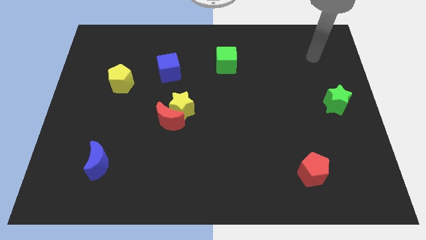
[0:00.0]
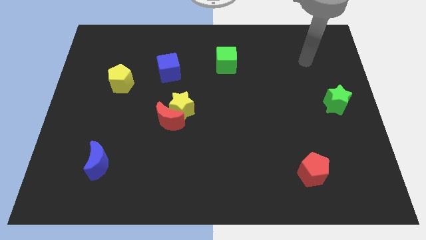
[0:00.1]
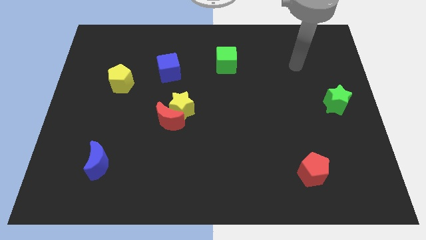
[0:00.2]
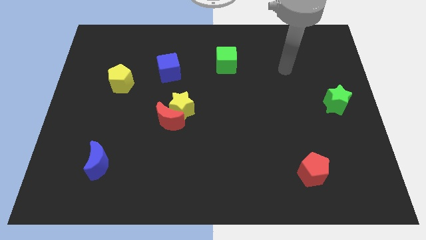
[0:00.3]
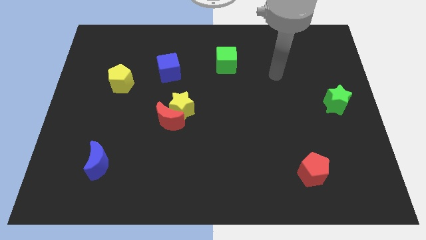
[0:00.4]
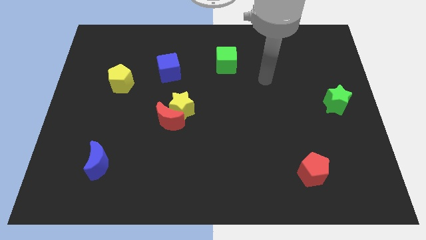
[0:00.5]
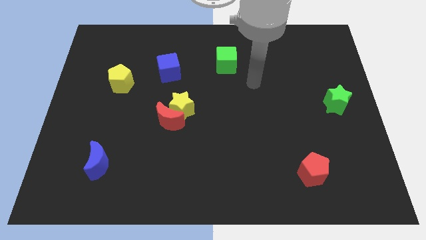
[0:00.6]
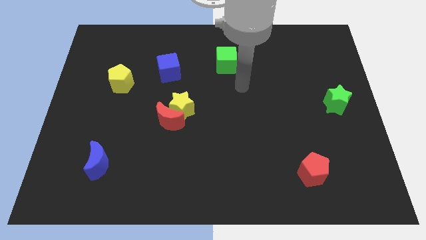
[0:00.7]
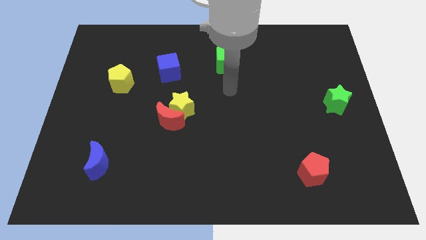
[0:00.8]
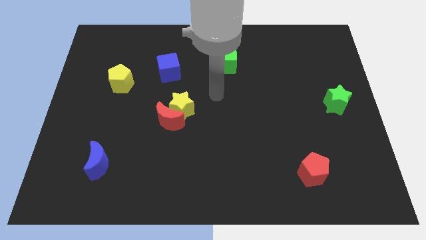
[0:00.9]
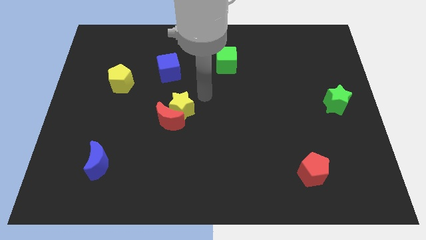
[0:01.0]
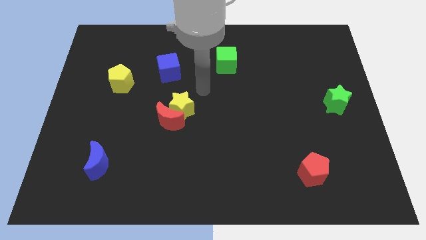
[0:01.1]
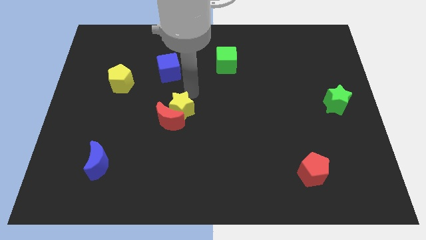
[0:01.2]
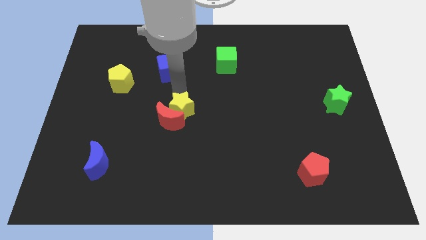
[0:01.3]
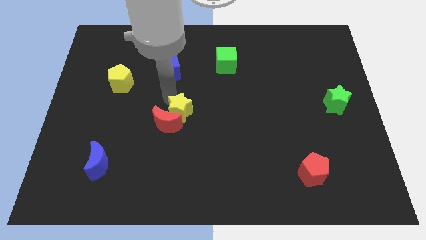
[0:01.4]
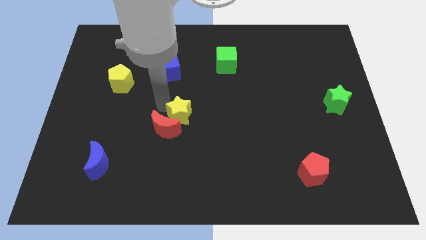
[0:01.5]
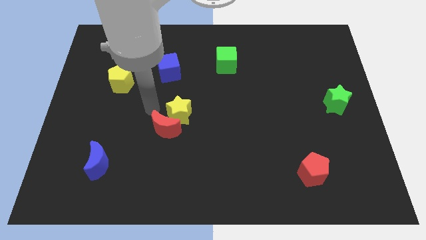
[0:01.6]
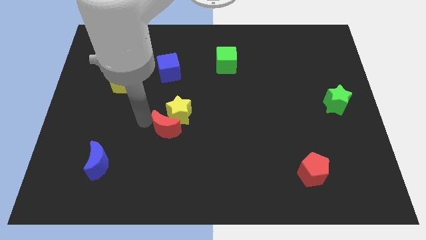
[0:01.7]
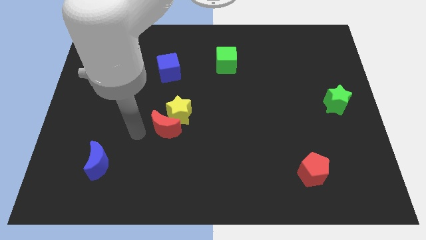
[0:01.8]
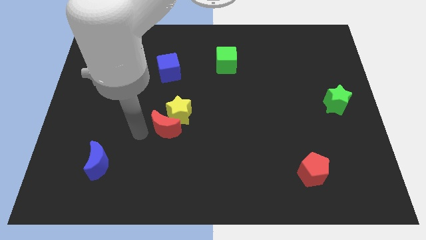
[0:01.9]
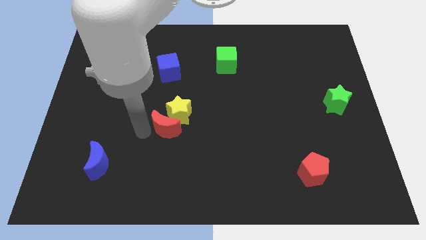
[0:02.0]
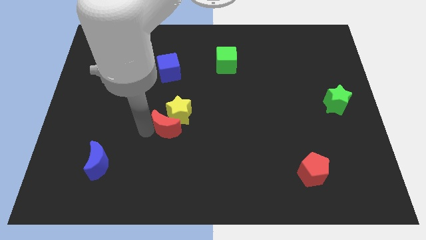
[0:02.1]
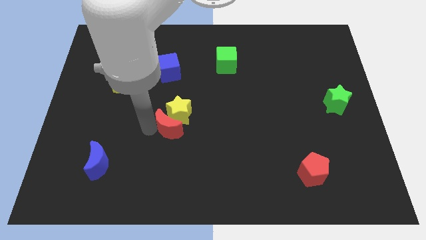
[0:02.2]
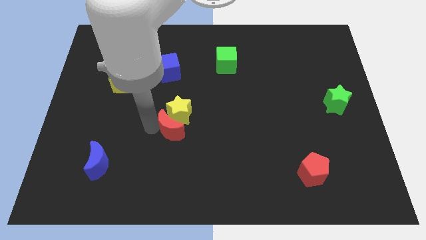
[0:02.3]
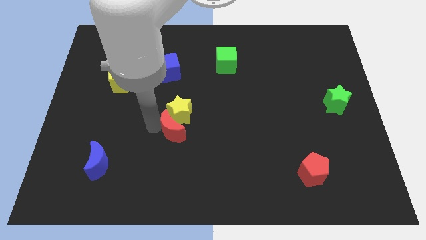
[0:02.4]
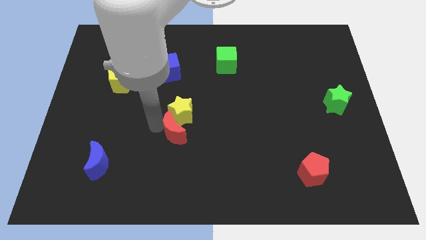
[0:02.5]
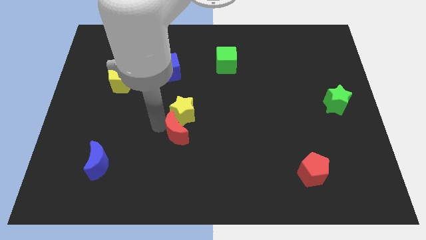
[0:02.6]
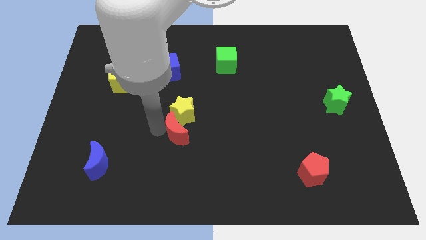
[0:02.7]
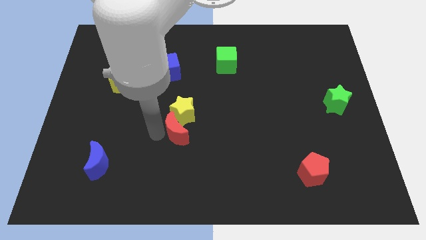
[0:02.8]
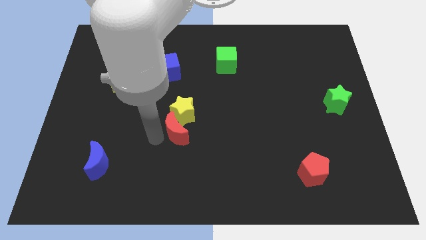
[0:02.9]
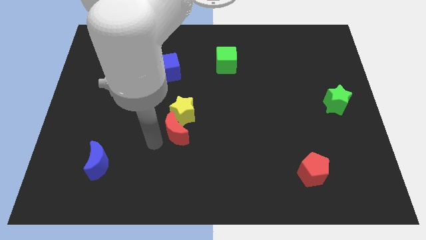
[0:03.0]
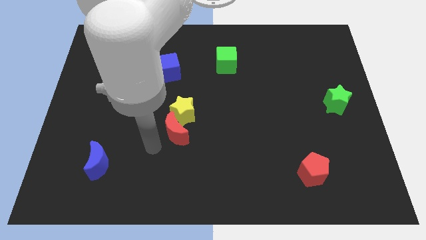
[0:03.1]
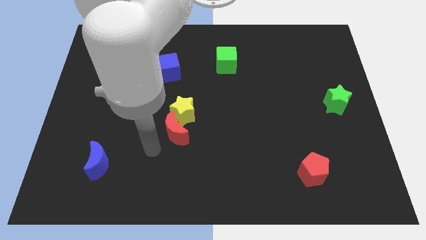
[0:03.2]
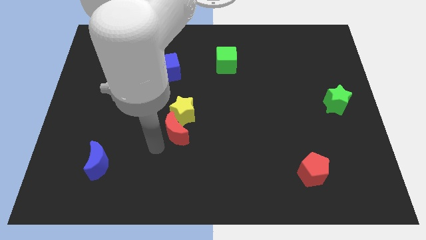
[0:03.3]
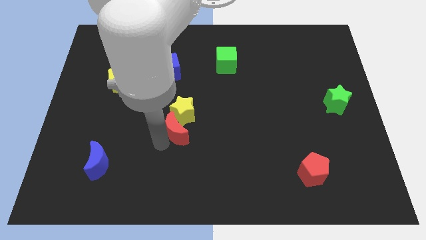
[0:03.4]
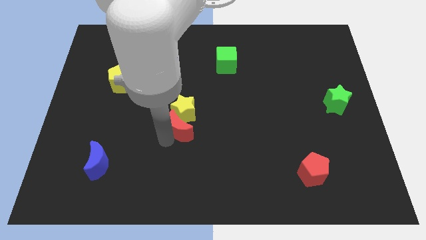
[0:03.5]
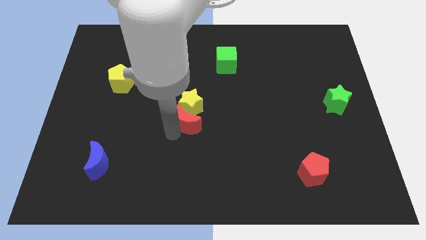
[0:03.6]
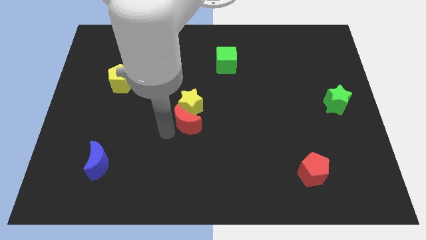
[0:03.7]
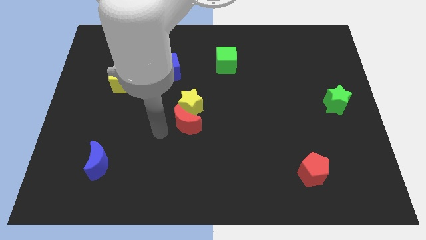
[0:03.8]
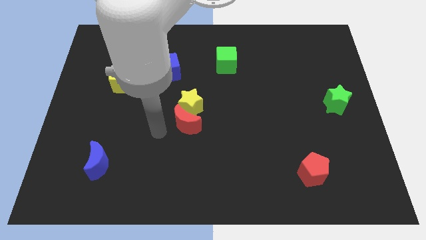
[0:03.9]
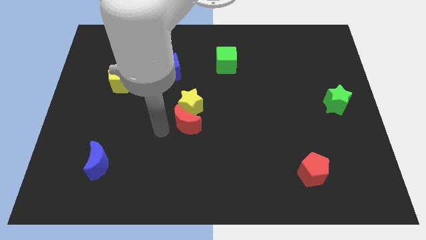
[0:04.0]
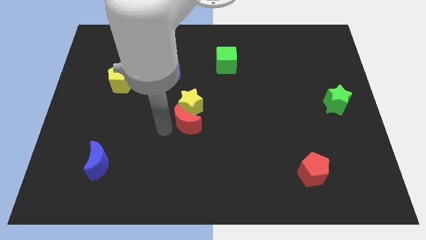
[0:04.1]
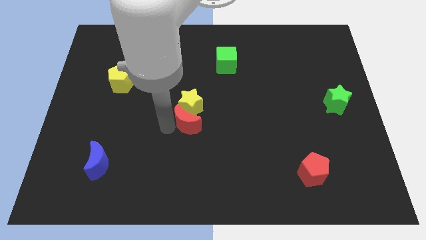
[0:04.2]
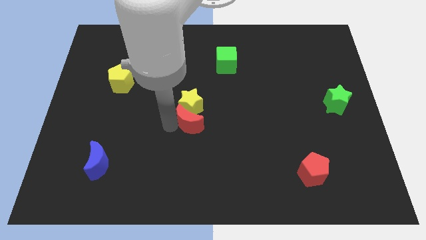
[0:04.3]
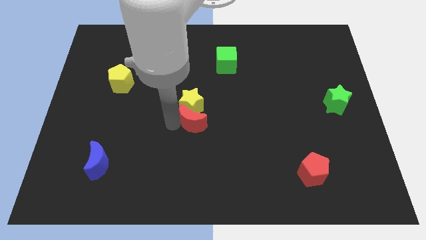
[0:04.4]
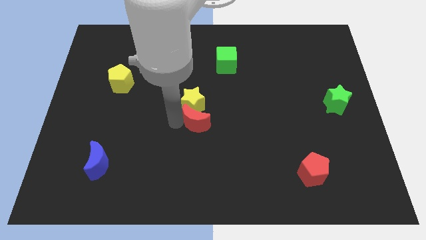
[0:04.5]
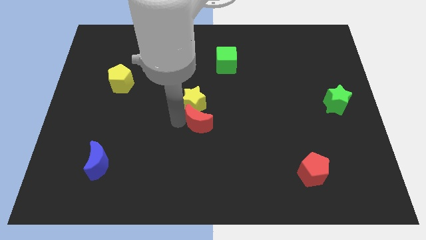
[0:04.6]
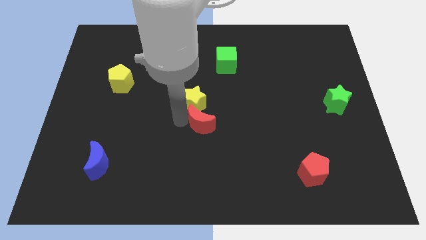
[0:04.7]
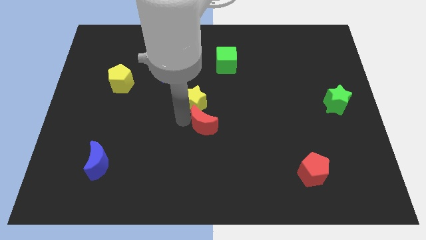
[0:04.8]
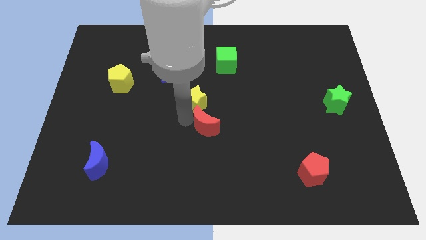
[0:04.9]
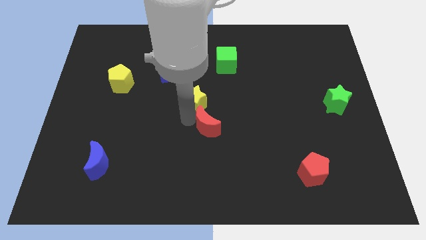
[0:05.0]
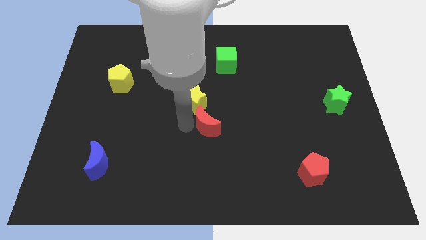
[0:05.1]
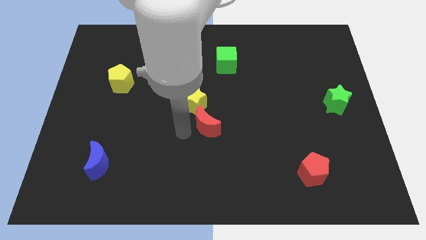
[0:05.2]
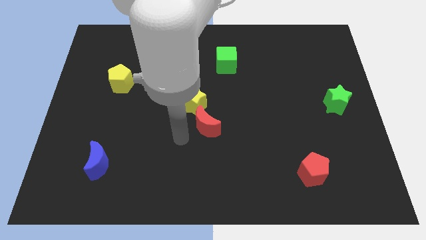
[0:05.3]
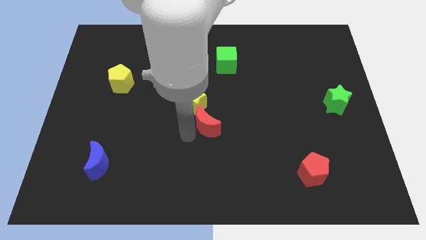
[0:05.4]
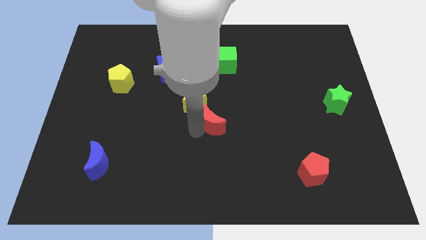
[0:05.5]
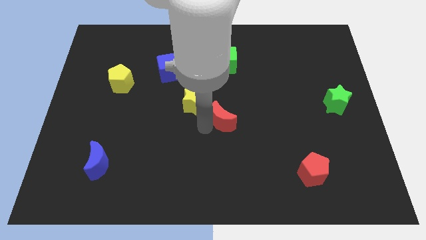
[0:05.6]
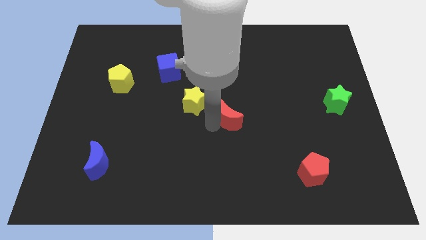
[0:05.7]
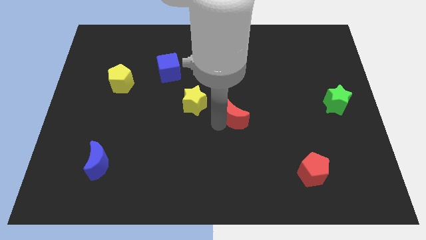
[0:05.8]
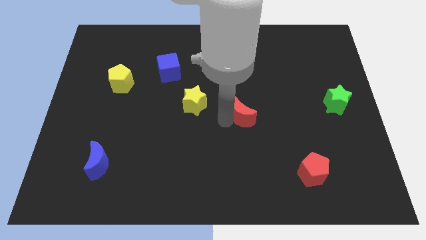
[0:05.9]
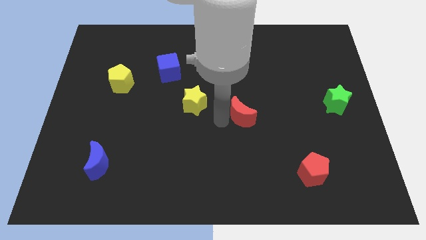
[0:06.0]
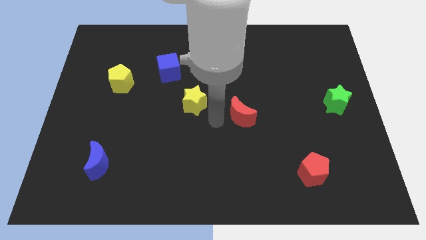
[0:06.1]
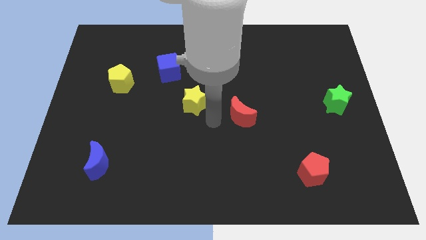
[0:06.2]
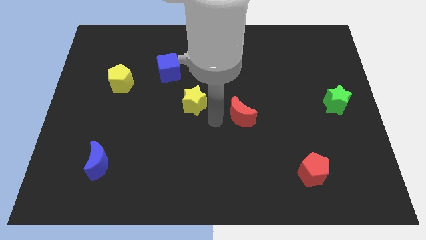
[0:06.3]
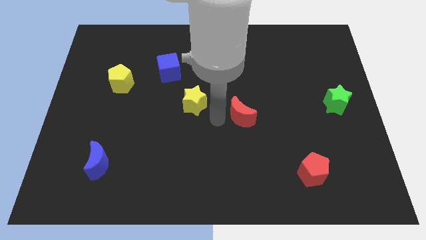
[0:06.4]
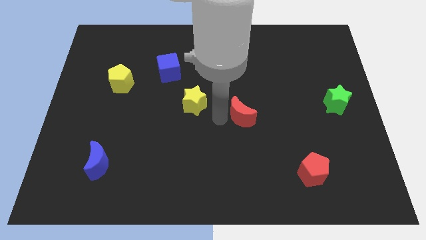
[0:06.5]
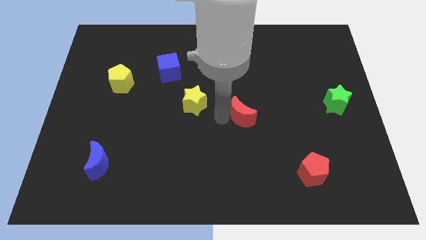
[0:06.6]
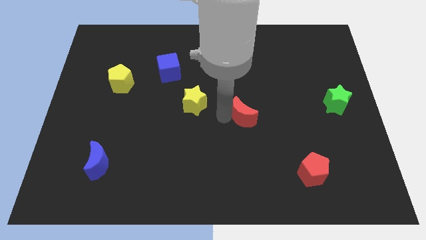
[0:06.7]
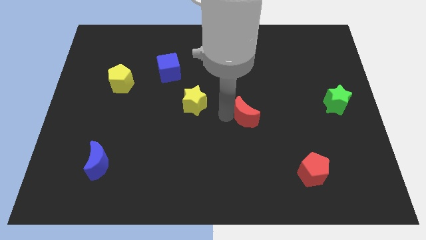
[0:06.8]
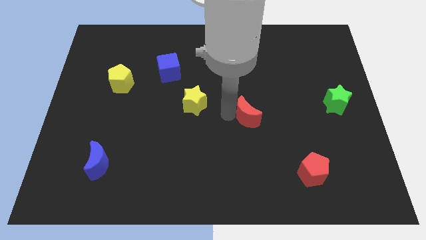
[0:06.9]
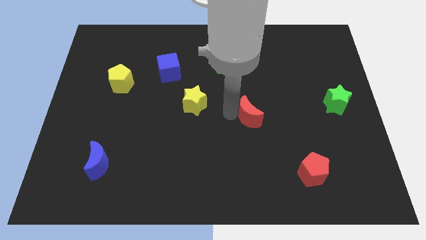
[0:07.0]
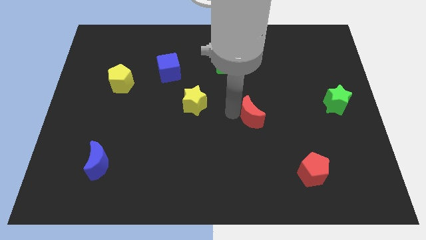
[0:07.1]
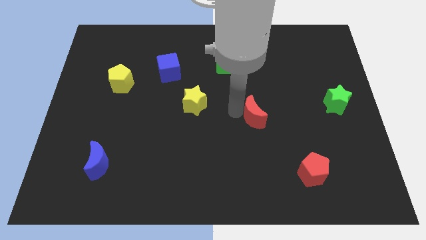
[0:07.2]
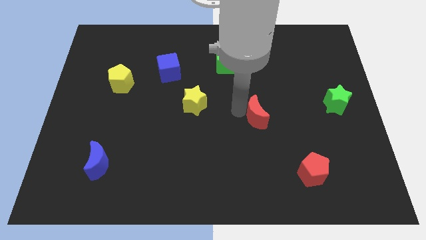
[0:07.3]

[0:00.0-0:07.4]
move the red moon right

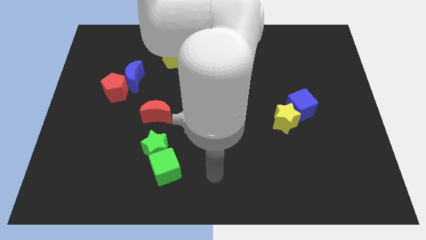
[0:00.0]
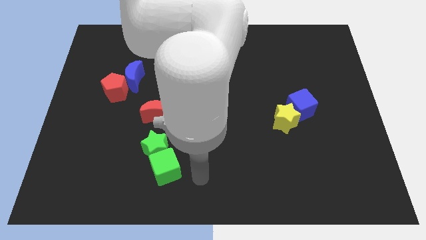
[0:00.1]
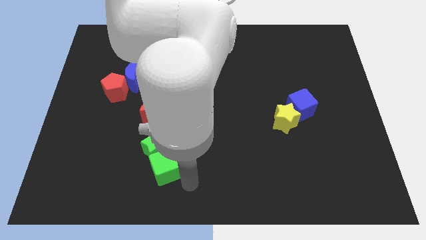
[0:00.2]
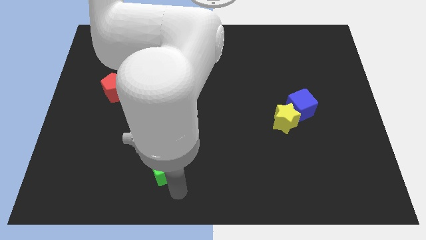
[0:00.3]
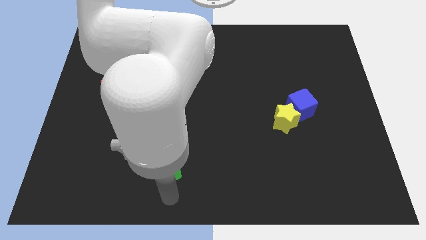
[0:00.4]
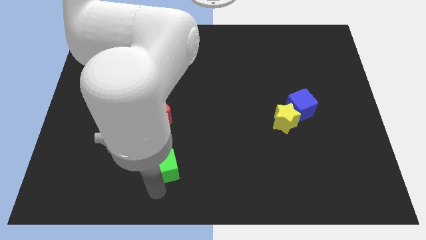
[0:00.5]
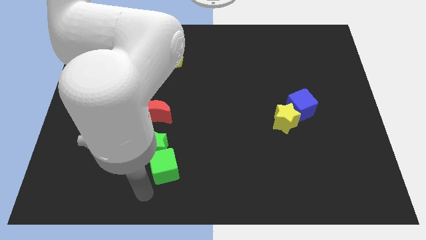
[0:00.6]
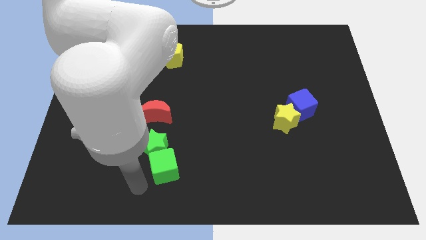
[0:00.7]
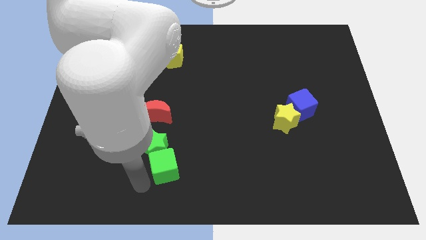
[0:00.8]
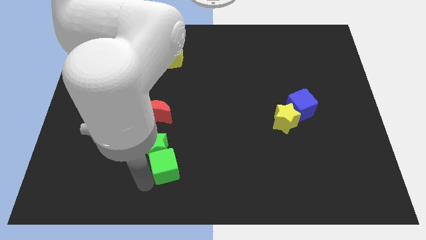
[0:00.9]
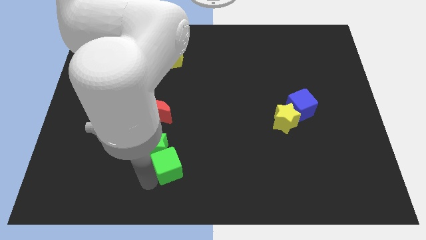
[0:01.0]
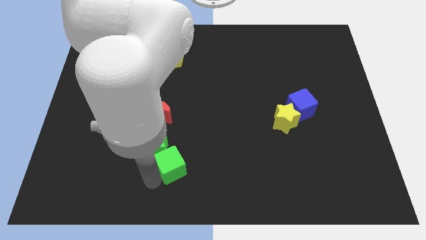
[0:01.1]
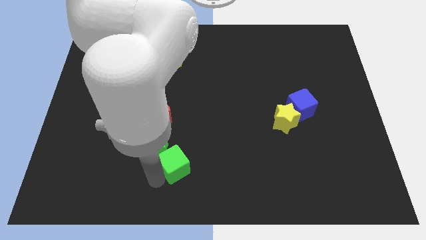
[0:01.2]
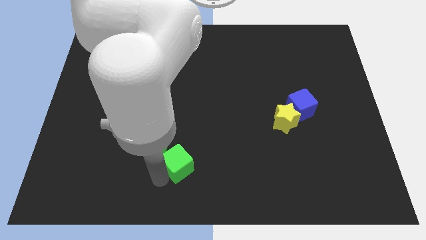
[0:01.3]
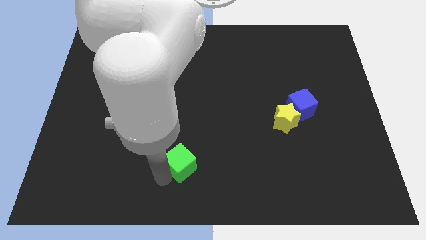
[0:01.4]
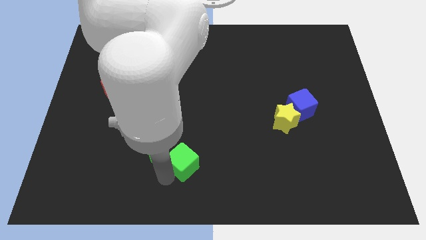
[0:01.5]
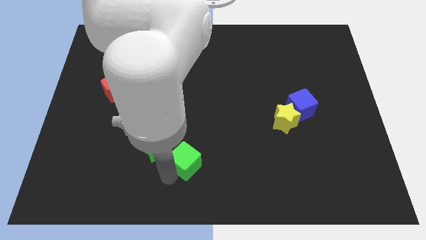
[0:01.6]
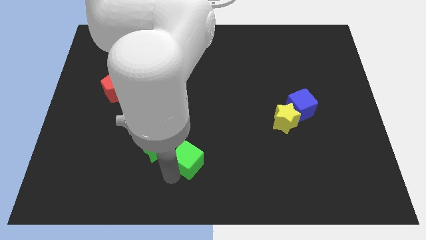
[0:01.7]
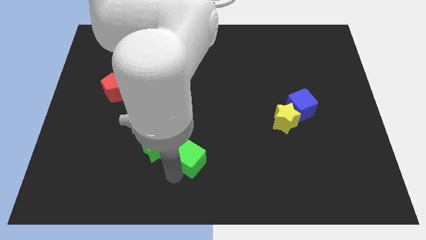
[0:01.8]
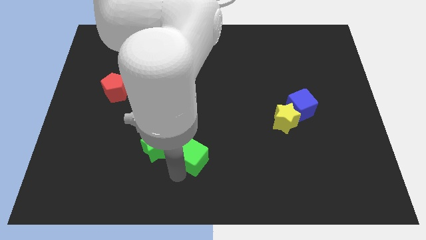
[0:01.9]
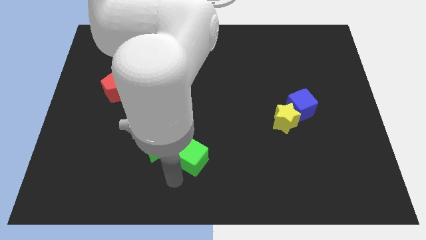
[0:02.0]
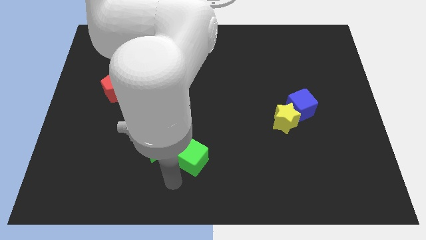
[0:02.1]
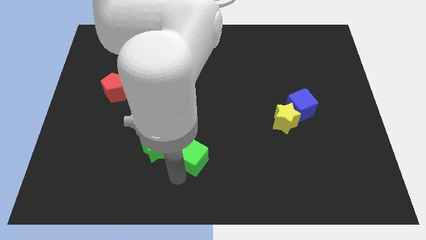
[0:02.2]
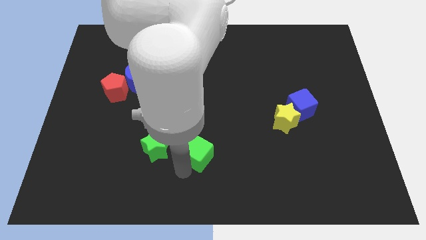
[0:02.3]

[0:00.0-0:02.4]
slightly slide the green cube upwards and then right
